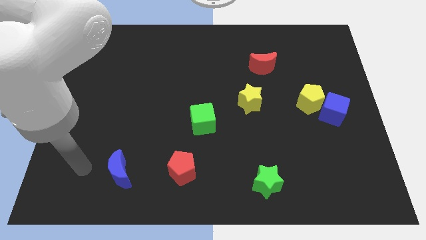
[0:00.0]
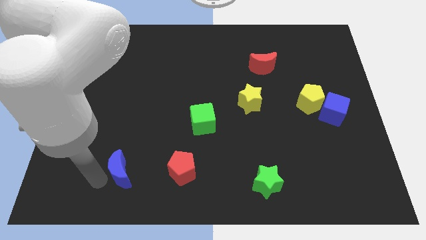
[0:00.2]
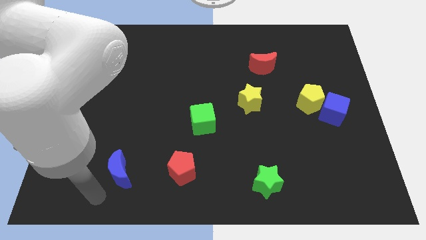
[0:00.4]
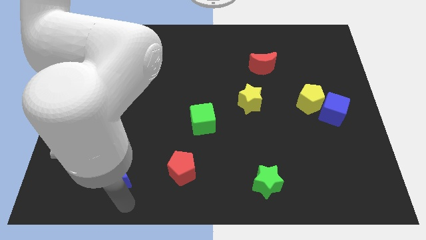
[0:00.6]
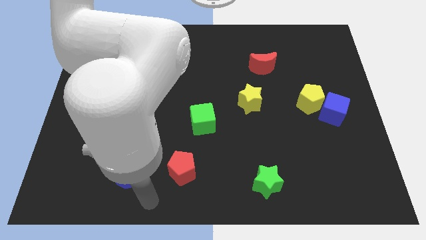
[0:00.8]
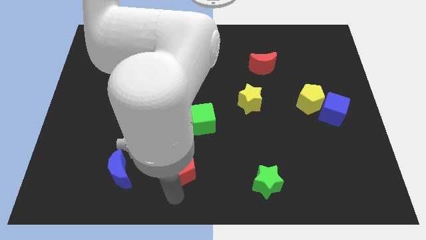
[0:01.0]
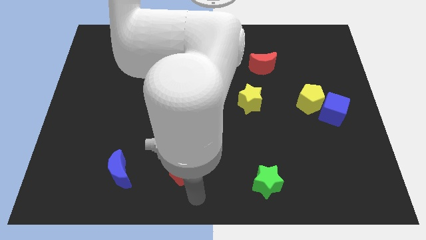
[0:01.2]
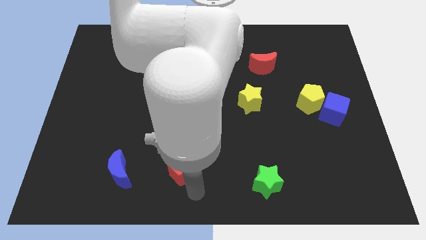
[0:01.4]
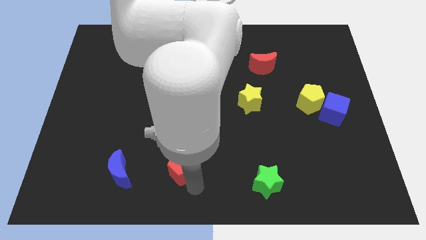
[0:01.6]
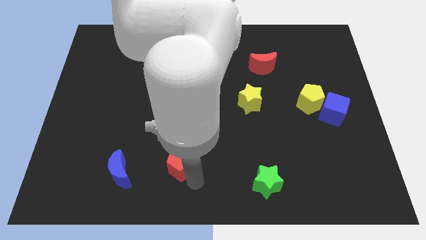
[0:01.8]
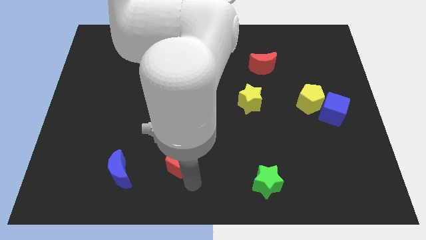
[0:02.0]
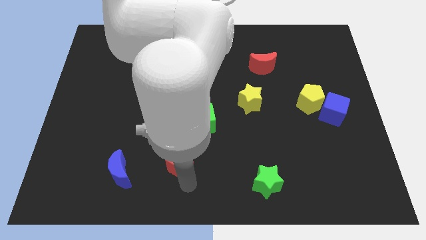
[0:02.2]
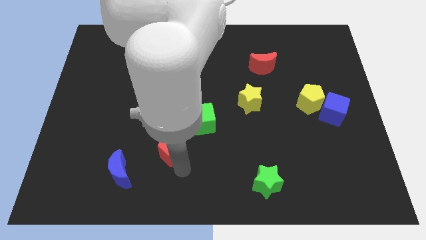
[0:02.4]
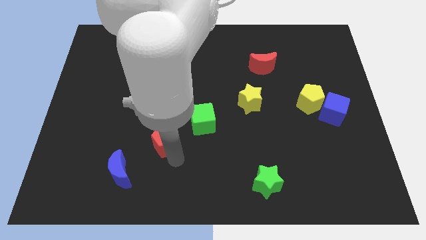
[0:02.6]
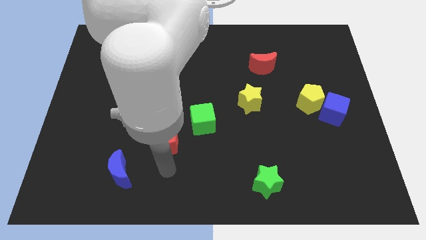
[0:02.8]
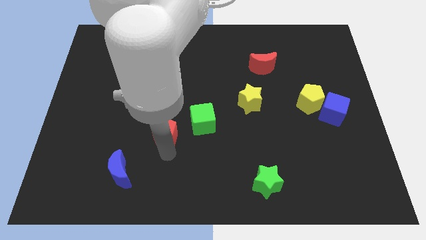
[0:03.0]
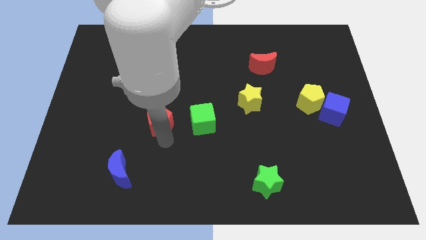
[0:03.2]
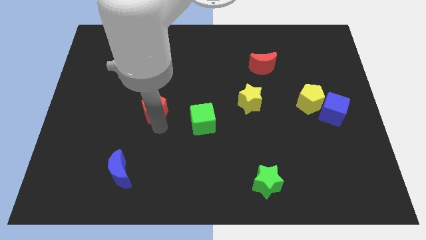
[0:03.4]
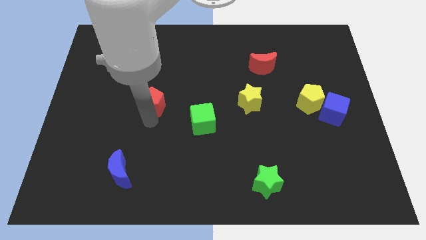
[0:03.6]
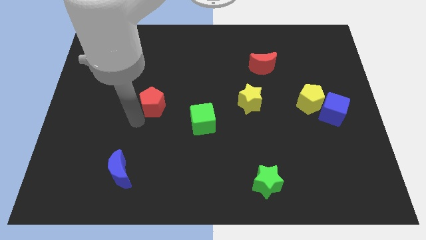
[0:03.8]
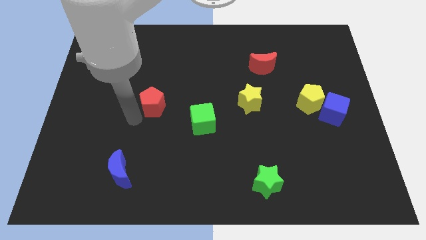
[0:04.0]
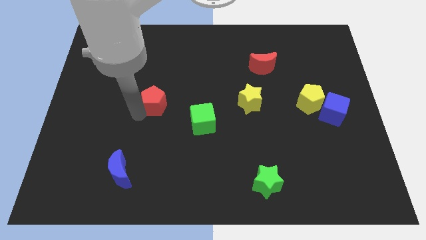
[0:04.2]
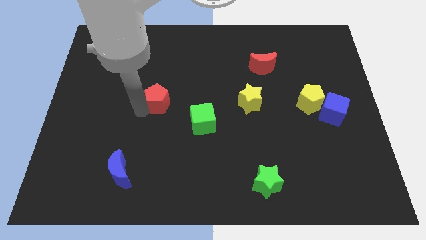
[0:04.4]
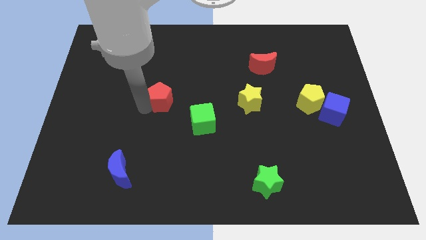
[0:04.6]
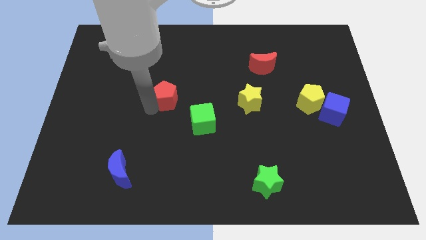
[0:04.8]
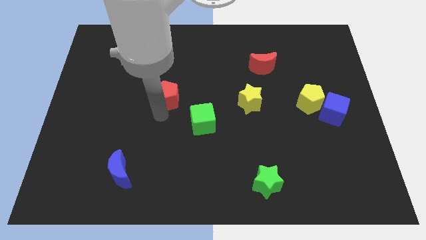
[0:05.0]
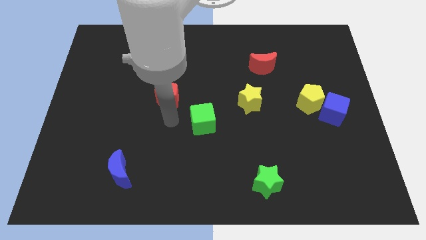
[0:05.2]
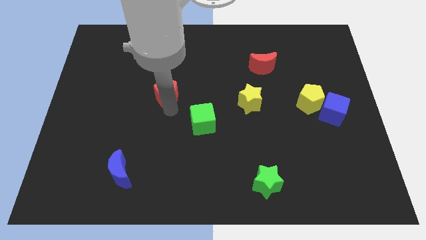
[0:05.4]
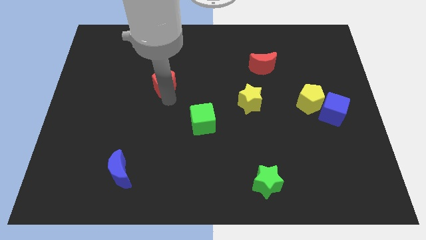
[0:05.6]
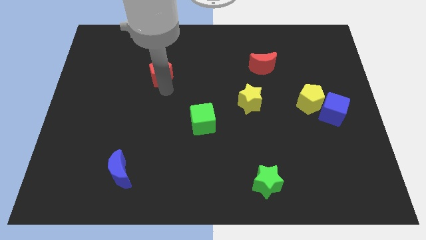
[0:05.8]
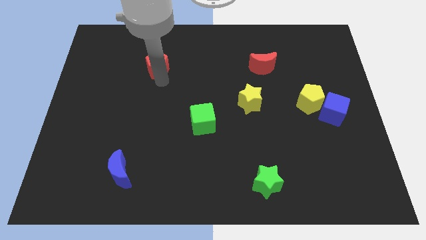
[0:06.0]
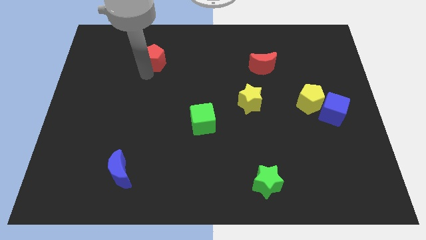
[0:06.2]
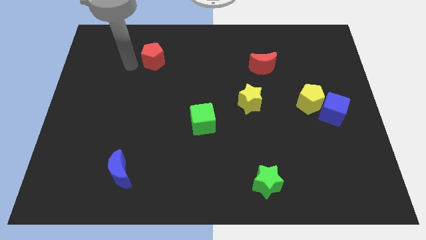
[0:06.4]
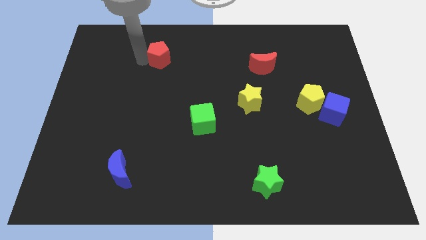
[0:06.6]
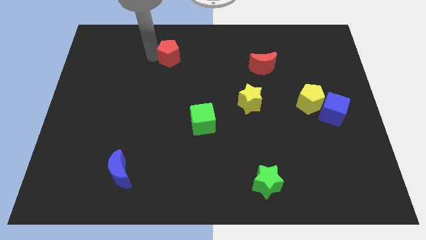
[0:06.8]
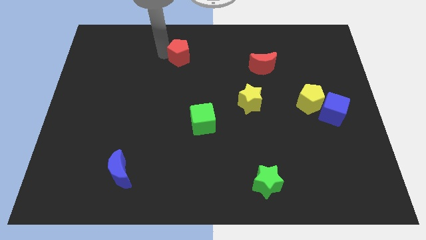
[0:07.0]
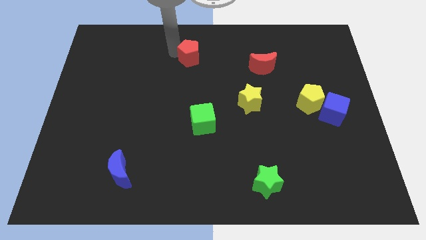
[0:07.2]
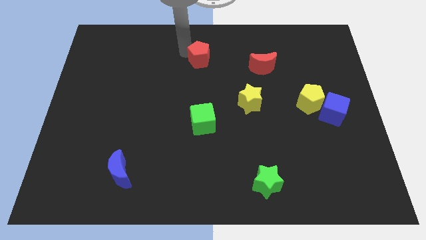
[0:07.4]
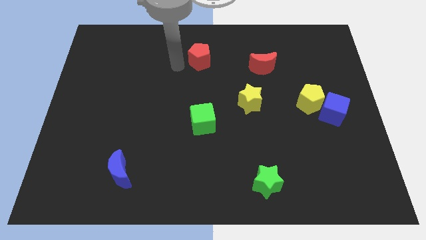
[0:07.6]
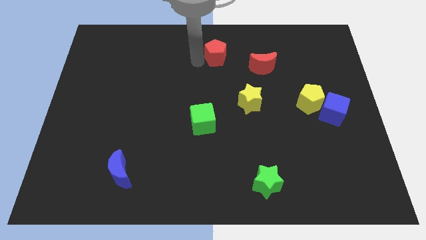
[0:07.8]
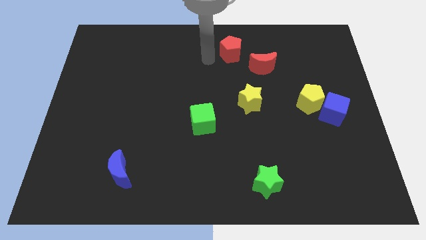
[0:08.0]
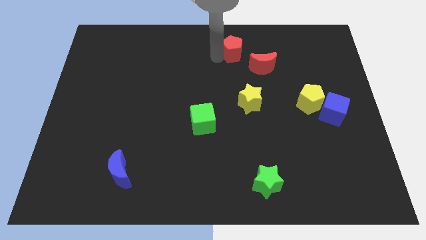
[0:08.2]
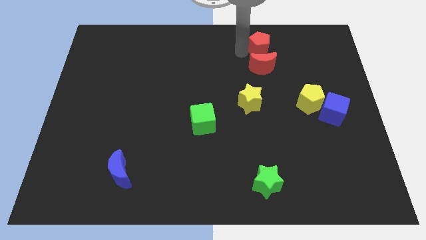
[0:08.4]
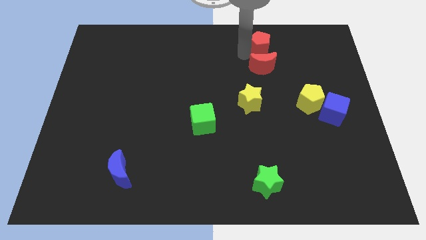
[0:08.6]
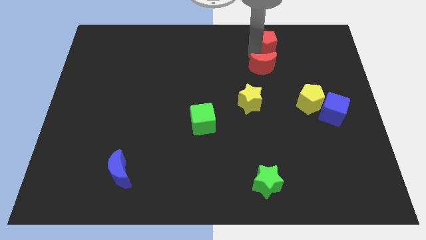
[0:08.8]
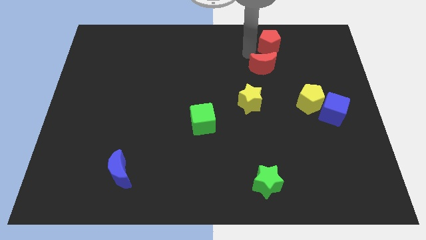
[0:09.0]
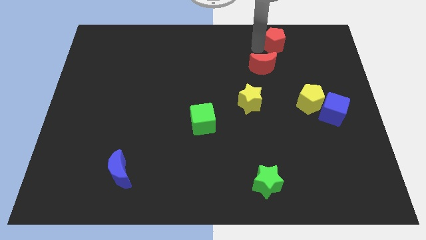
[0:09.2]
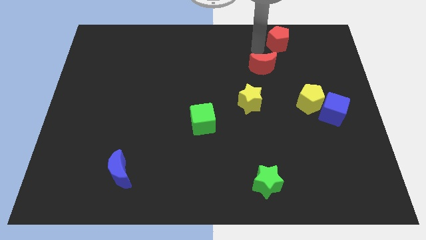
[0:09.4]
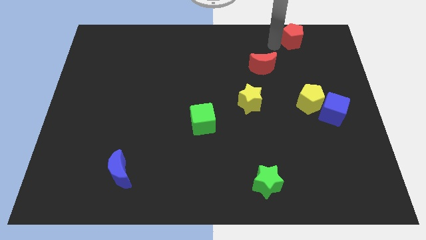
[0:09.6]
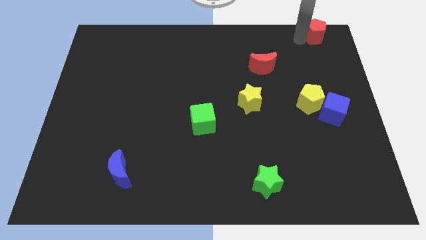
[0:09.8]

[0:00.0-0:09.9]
push the red pentagon to the upper right corner

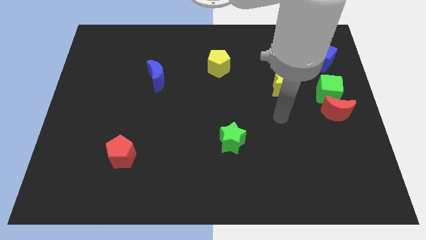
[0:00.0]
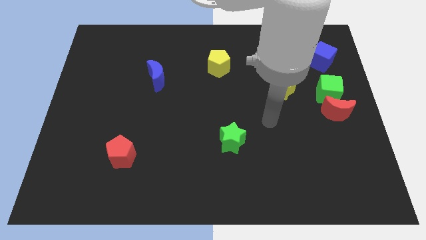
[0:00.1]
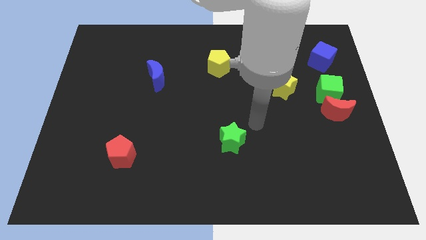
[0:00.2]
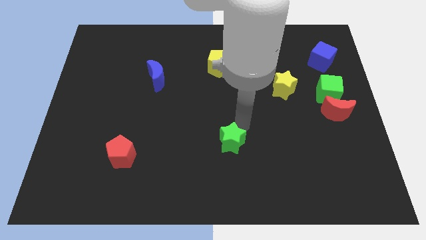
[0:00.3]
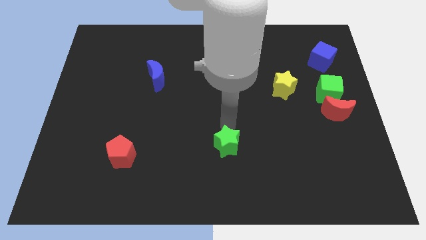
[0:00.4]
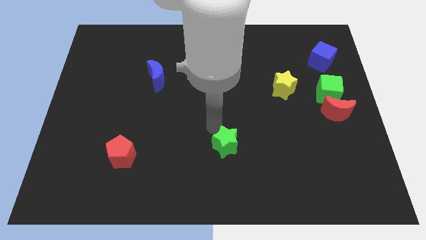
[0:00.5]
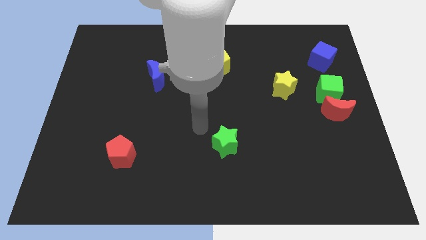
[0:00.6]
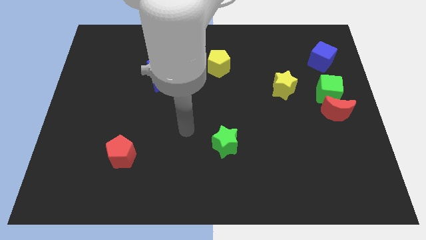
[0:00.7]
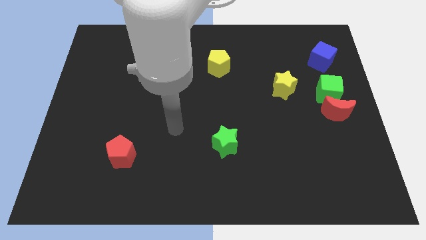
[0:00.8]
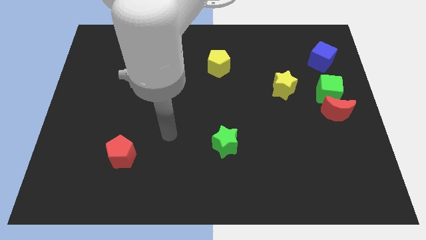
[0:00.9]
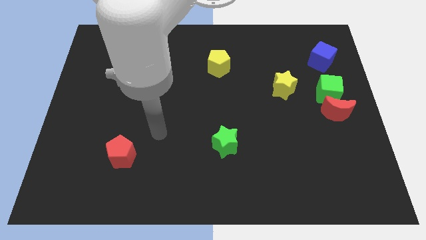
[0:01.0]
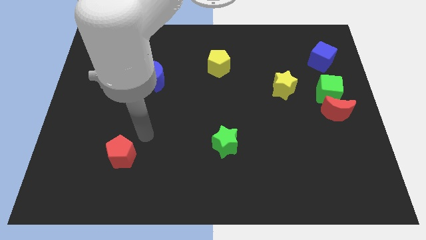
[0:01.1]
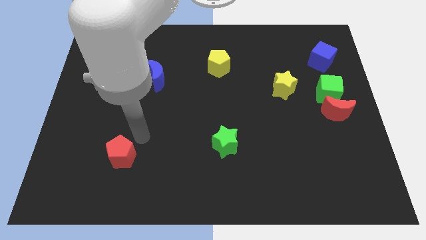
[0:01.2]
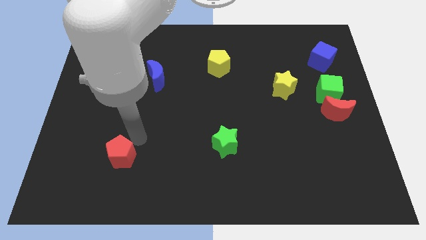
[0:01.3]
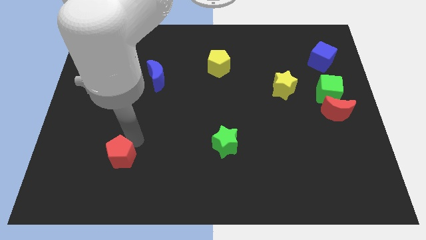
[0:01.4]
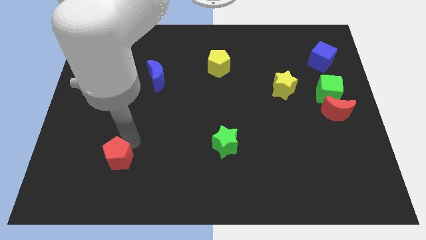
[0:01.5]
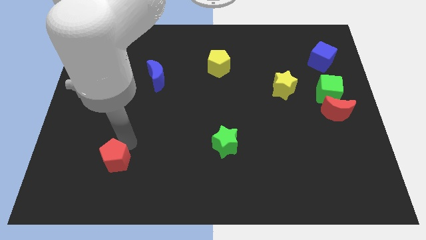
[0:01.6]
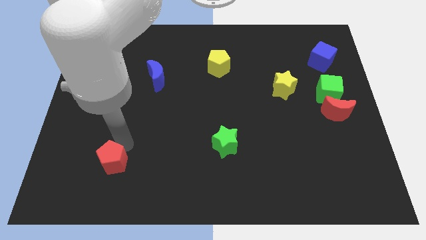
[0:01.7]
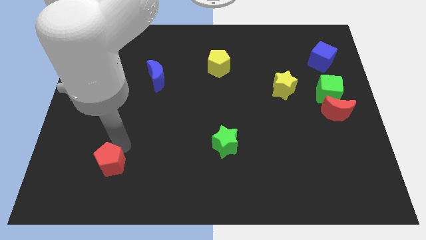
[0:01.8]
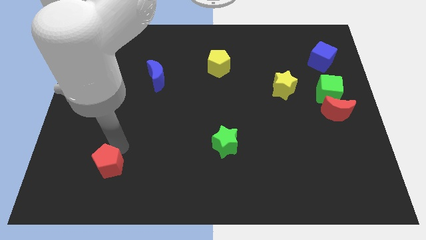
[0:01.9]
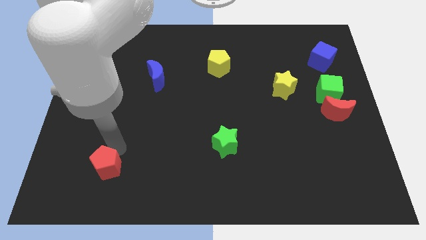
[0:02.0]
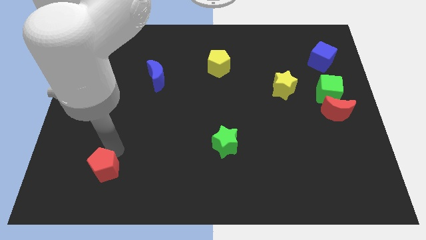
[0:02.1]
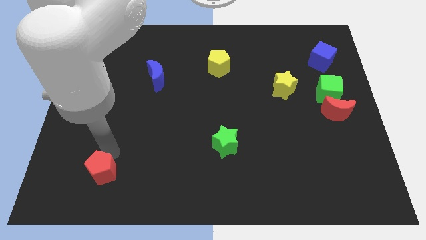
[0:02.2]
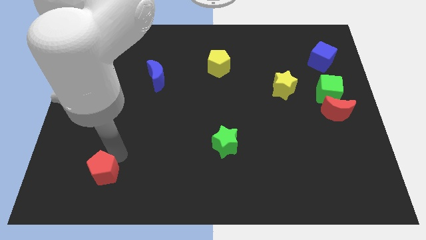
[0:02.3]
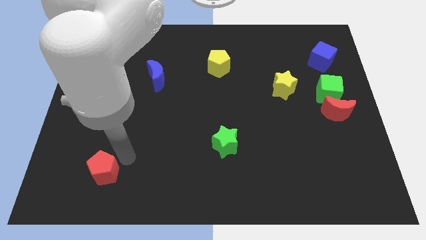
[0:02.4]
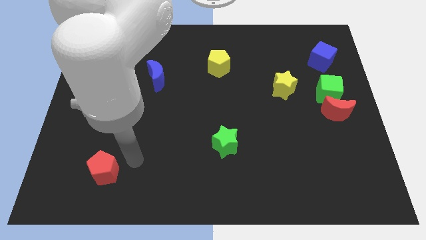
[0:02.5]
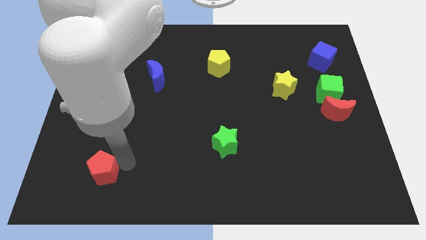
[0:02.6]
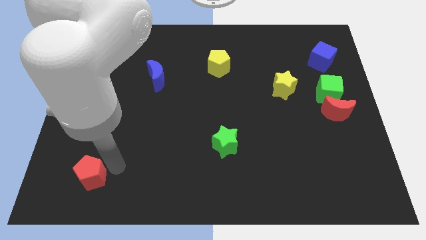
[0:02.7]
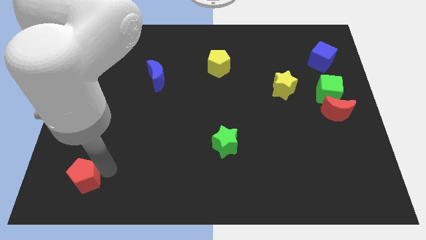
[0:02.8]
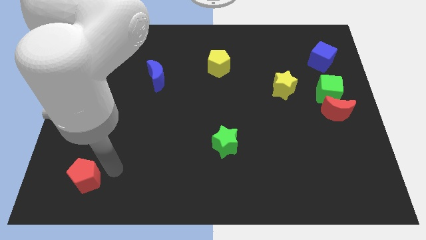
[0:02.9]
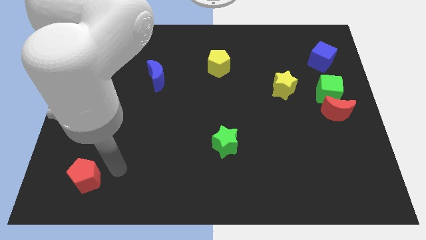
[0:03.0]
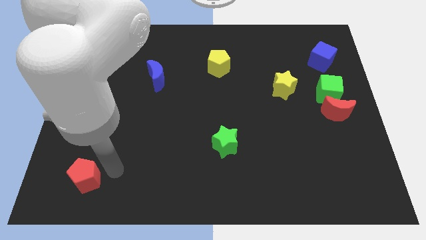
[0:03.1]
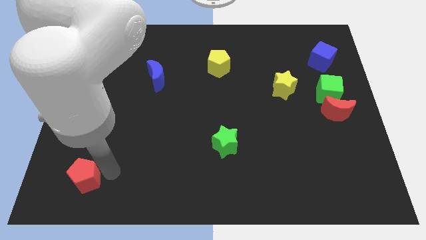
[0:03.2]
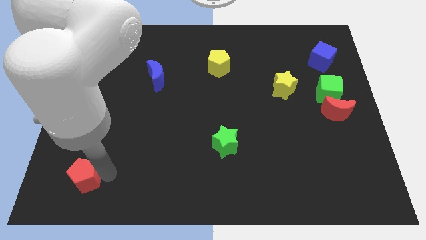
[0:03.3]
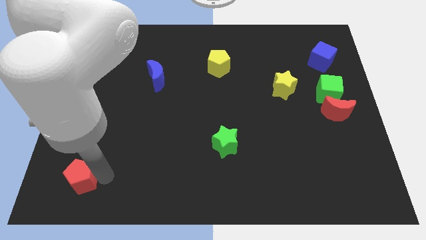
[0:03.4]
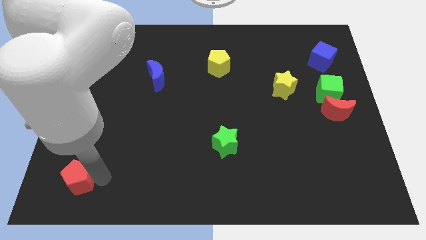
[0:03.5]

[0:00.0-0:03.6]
put the red pentagon to the lower left corner
